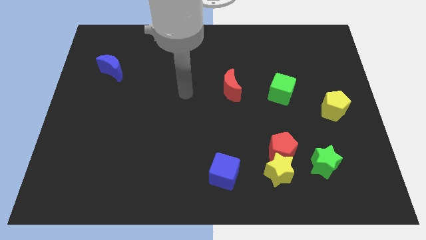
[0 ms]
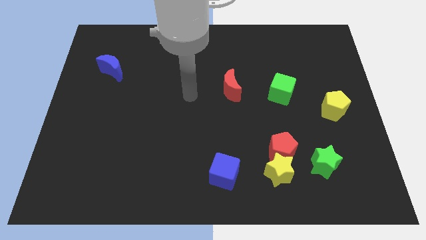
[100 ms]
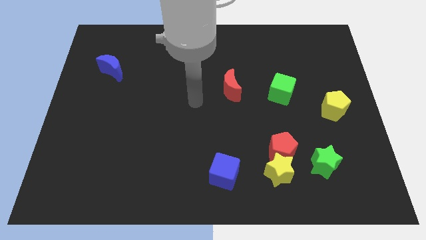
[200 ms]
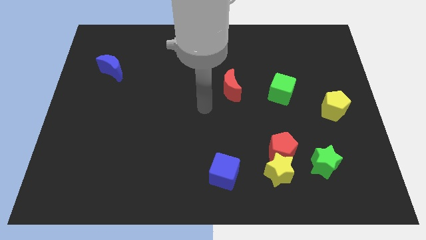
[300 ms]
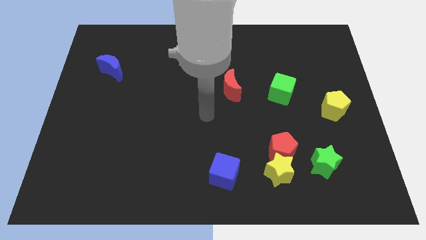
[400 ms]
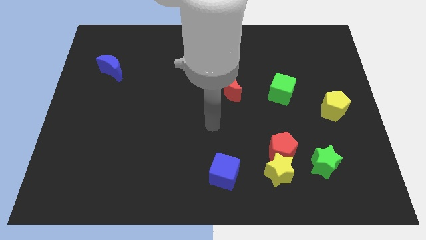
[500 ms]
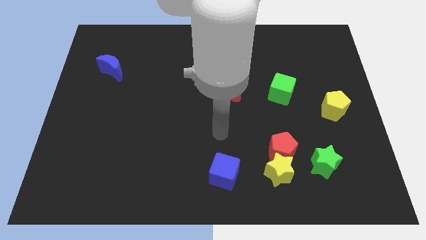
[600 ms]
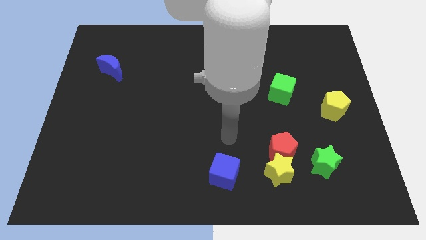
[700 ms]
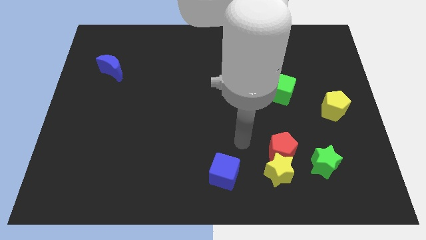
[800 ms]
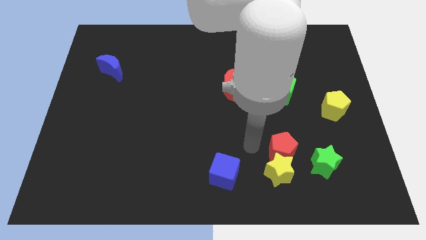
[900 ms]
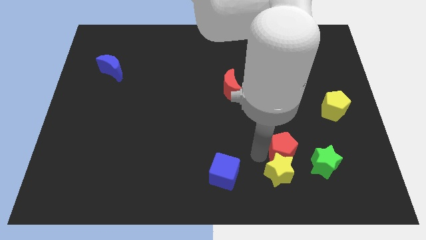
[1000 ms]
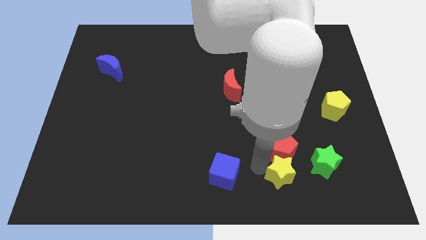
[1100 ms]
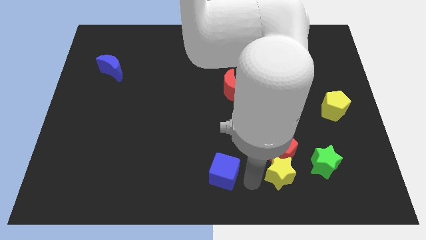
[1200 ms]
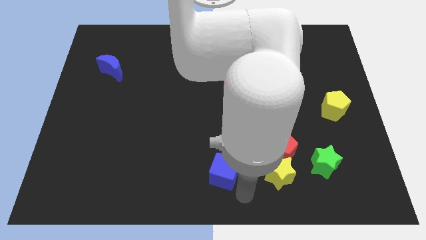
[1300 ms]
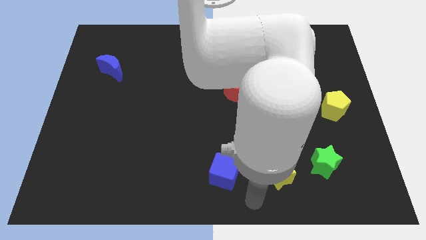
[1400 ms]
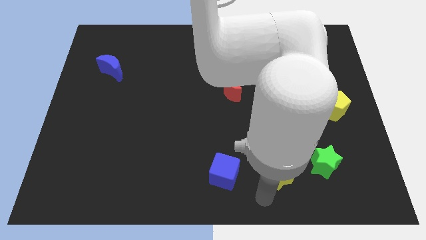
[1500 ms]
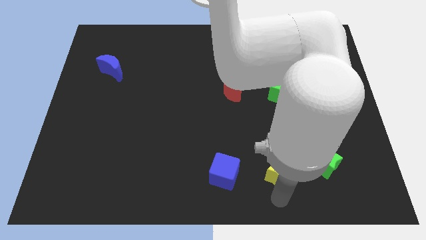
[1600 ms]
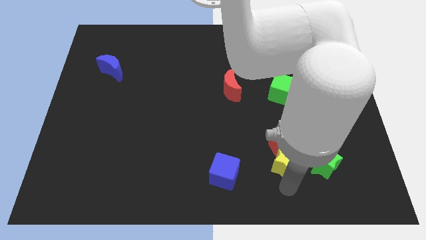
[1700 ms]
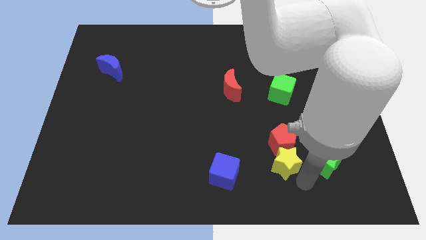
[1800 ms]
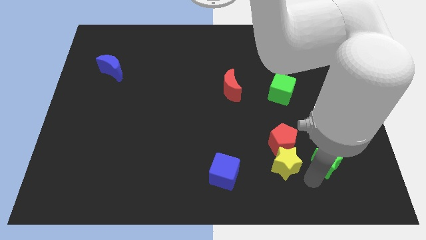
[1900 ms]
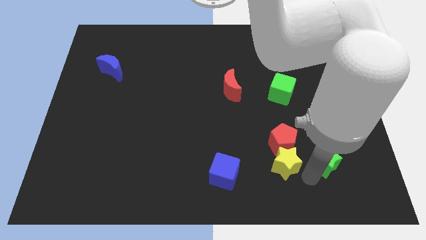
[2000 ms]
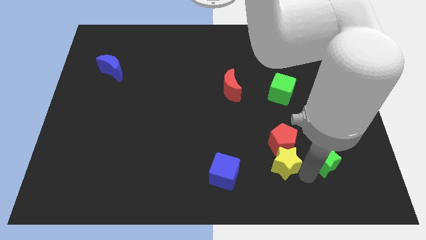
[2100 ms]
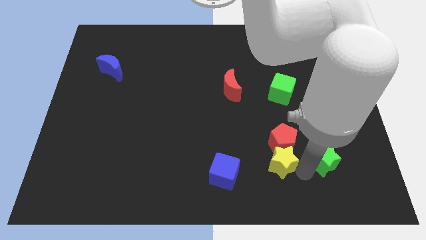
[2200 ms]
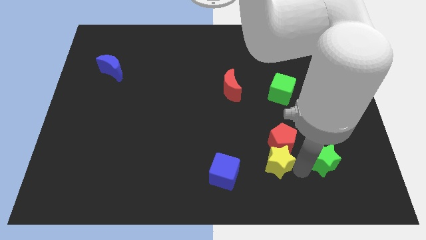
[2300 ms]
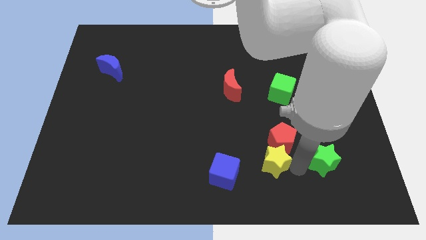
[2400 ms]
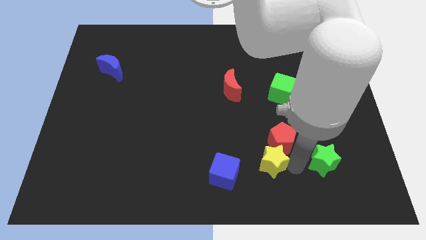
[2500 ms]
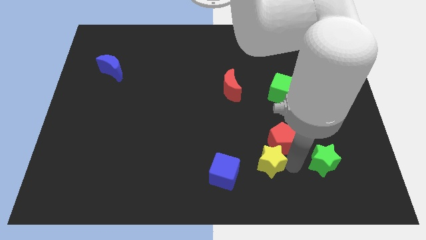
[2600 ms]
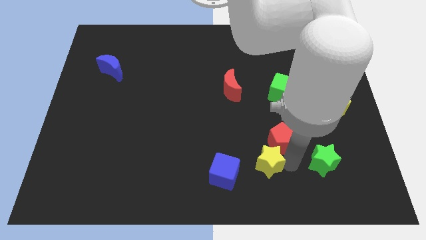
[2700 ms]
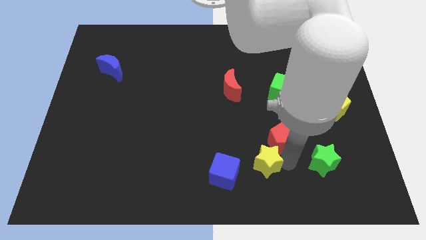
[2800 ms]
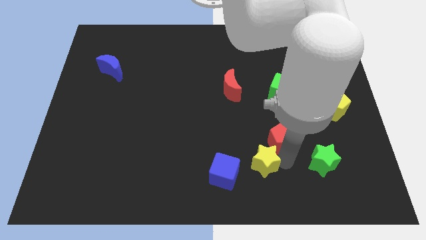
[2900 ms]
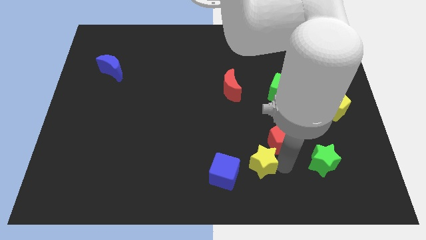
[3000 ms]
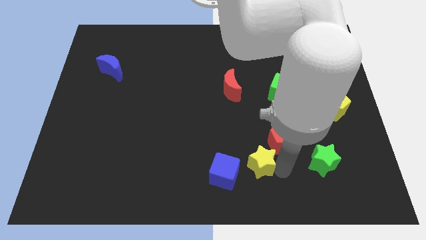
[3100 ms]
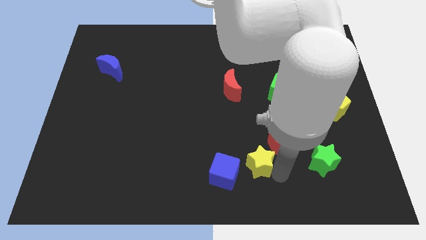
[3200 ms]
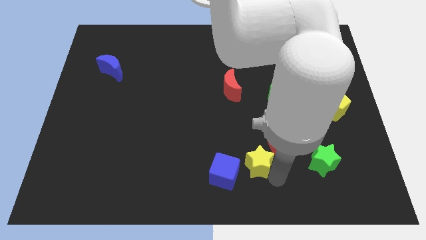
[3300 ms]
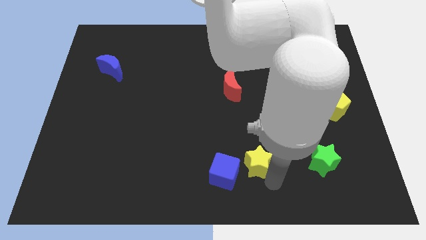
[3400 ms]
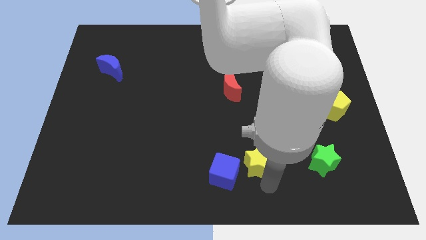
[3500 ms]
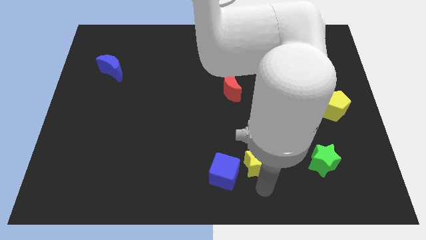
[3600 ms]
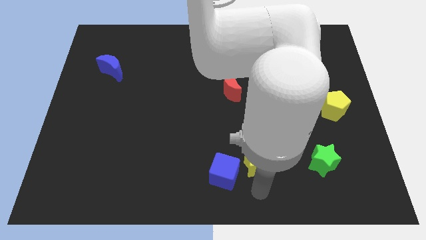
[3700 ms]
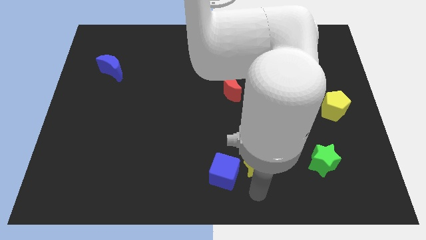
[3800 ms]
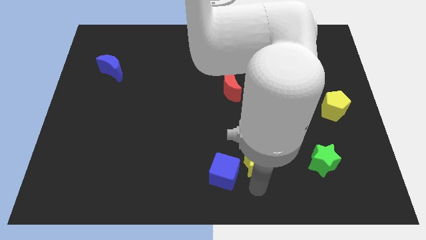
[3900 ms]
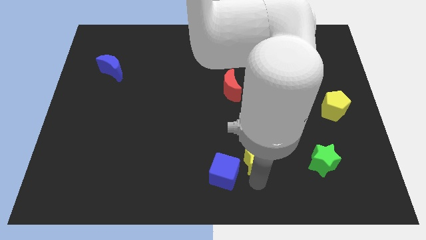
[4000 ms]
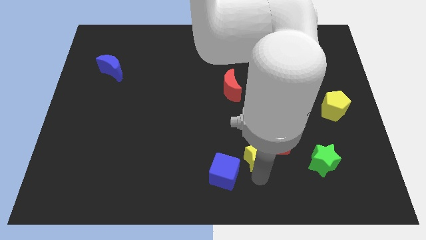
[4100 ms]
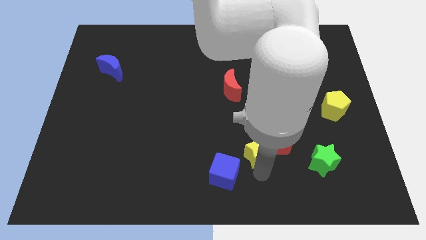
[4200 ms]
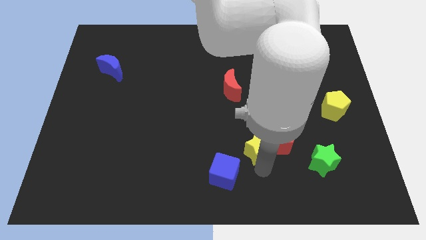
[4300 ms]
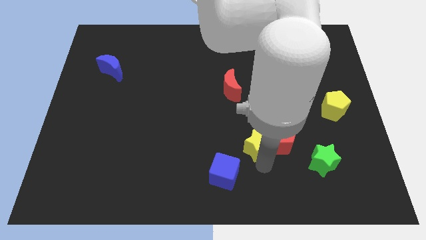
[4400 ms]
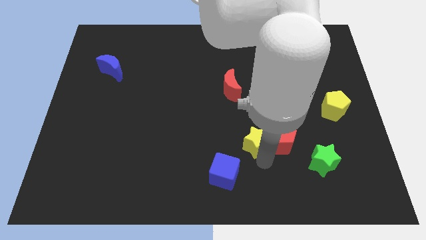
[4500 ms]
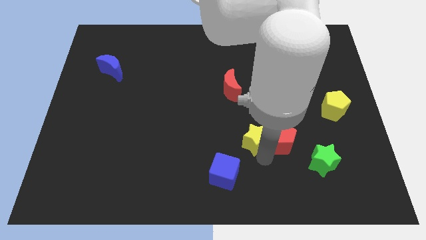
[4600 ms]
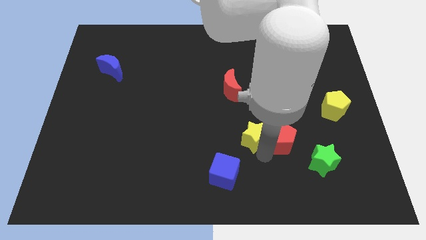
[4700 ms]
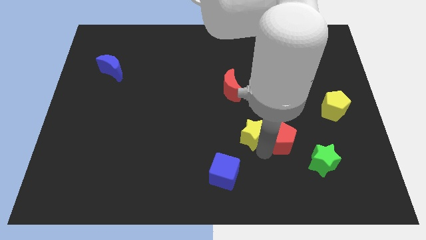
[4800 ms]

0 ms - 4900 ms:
push the yellow star to the bottom side of the red moon

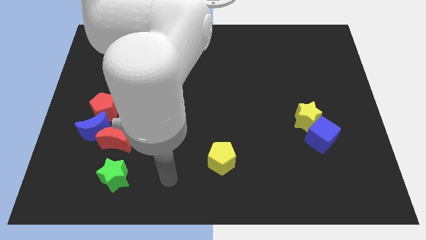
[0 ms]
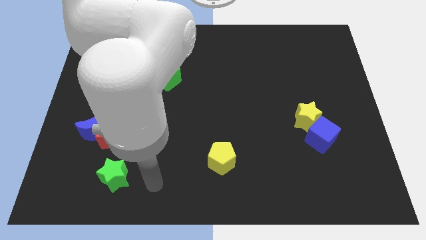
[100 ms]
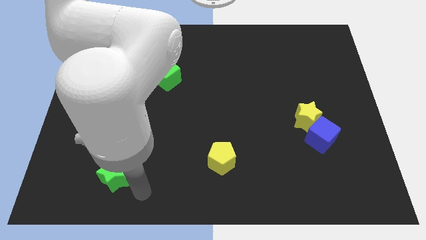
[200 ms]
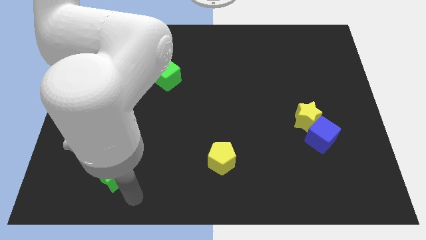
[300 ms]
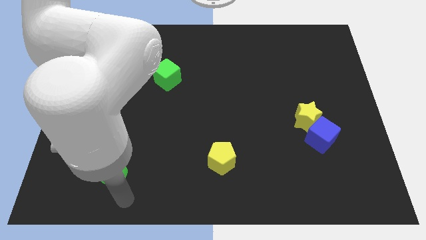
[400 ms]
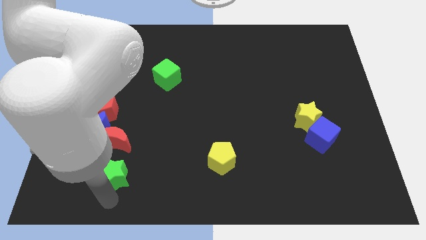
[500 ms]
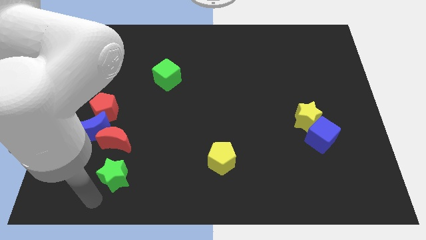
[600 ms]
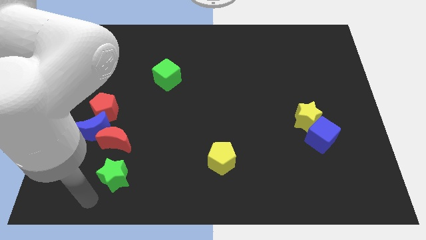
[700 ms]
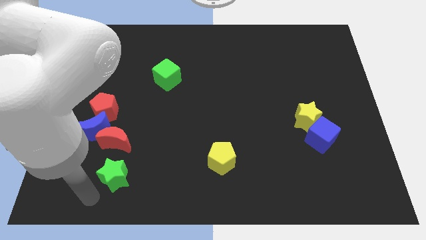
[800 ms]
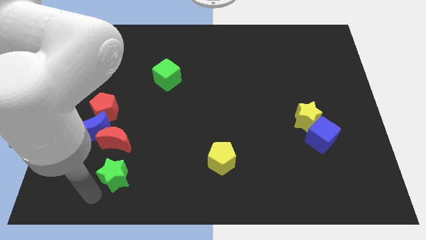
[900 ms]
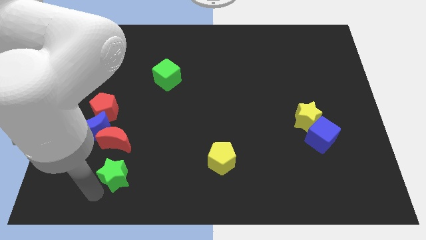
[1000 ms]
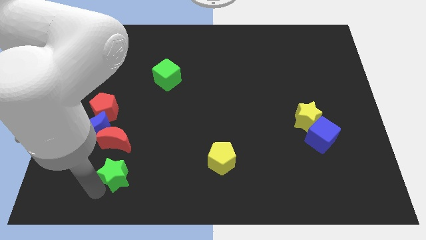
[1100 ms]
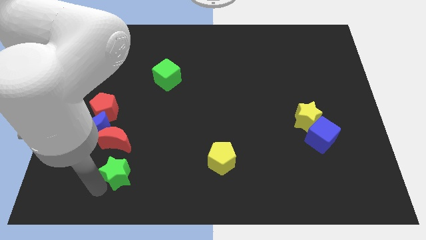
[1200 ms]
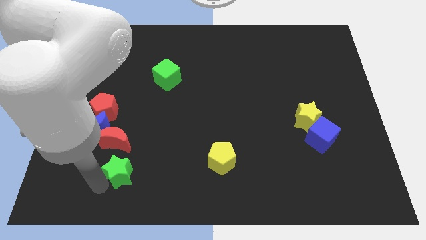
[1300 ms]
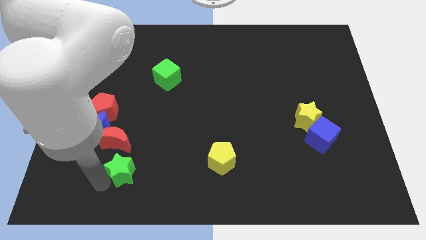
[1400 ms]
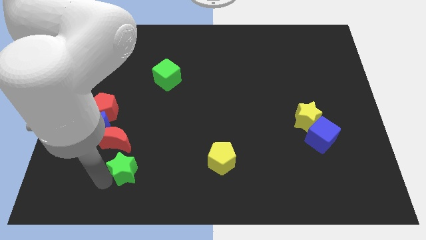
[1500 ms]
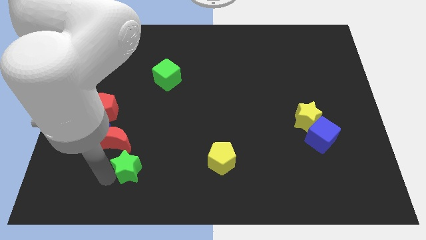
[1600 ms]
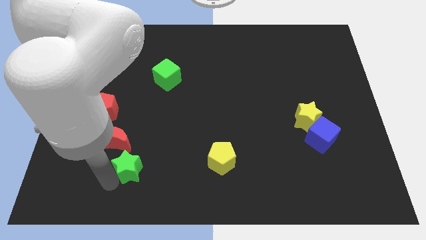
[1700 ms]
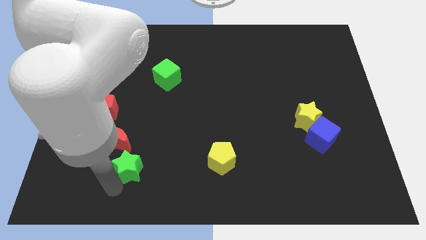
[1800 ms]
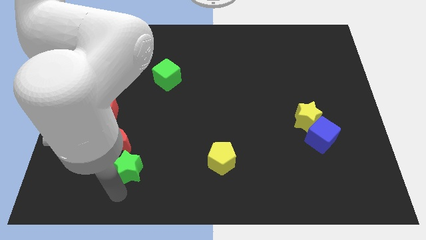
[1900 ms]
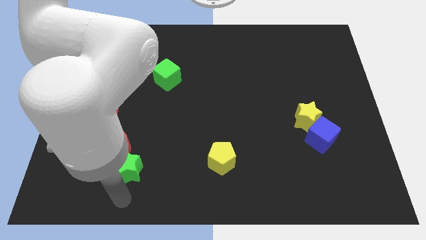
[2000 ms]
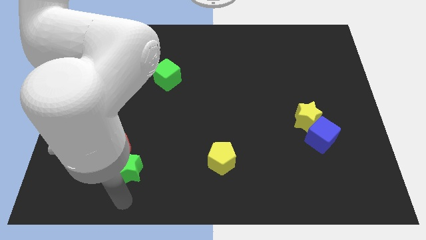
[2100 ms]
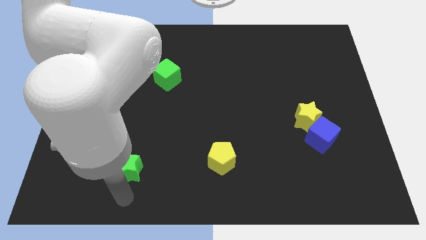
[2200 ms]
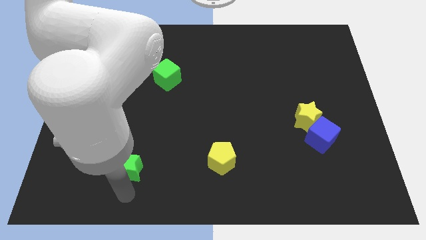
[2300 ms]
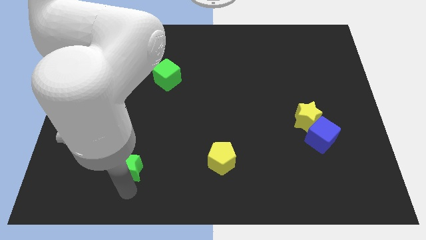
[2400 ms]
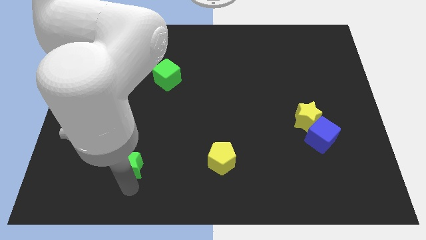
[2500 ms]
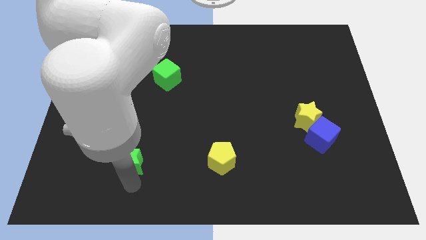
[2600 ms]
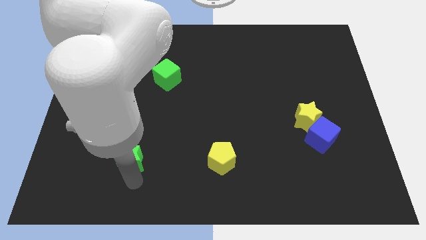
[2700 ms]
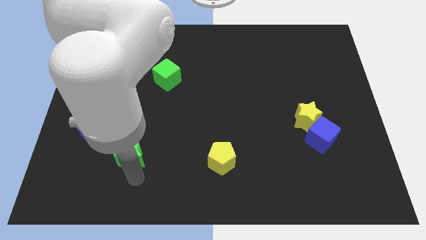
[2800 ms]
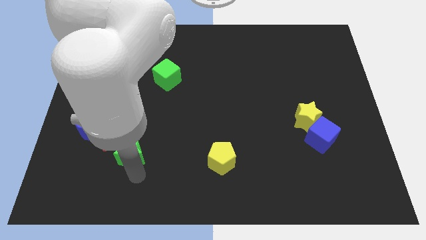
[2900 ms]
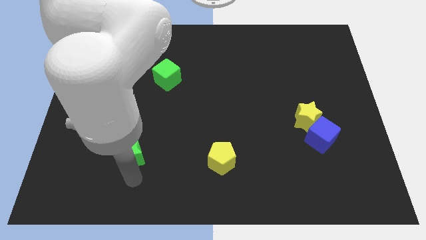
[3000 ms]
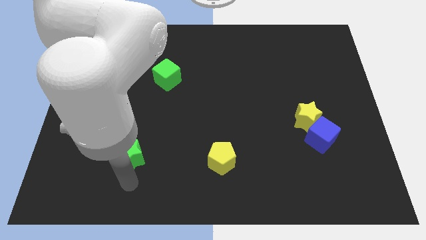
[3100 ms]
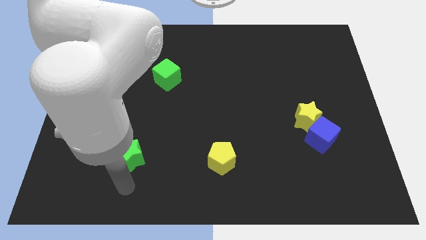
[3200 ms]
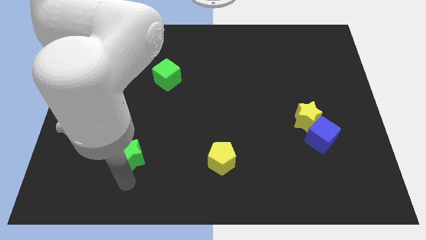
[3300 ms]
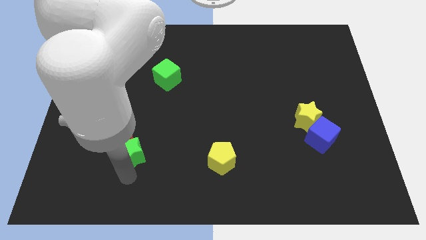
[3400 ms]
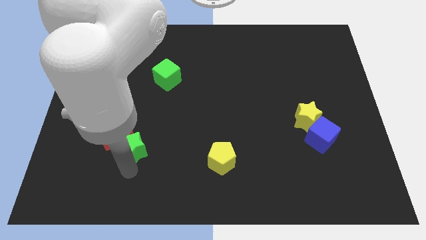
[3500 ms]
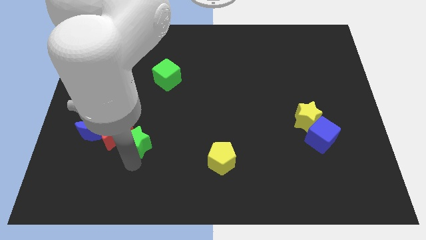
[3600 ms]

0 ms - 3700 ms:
put the green star to the bottom right of the red pentagon

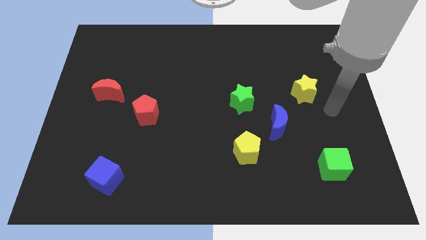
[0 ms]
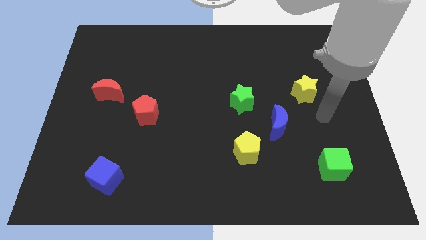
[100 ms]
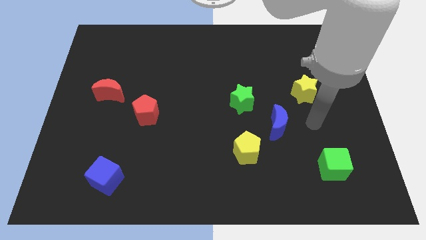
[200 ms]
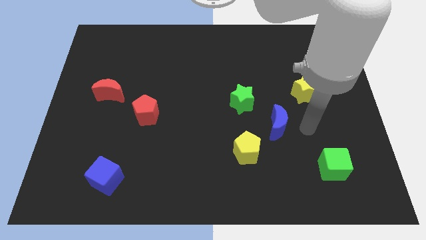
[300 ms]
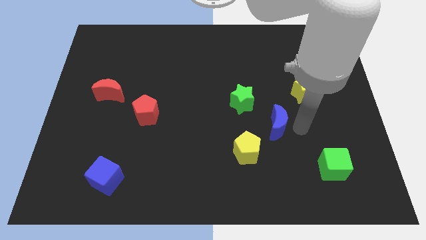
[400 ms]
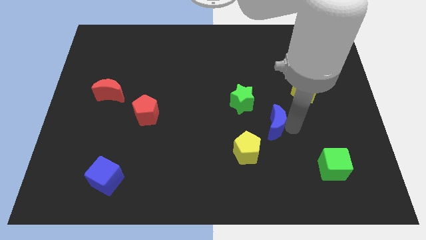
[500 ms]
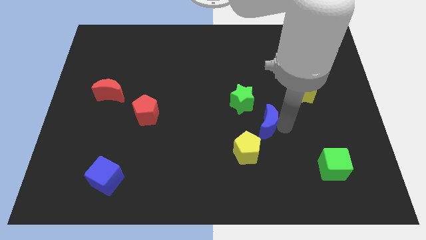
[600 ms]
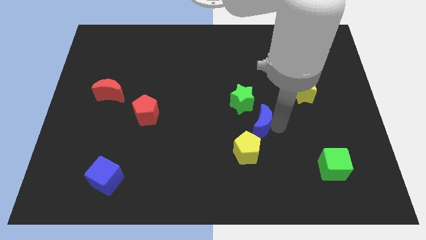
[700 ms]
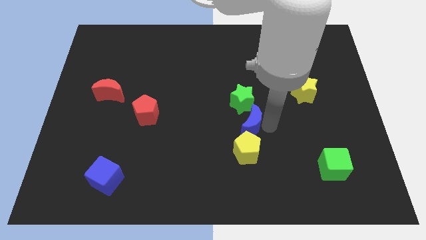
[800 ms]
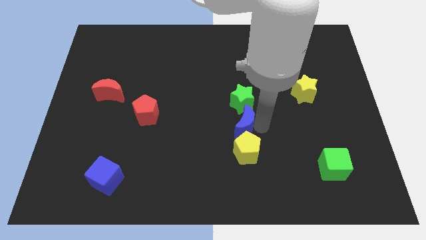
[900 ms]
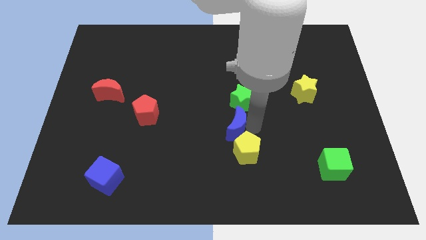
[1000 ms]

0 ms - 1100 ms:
push the blue moon diagonally down and to the left of the green star
